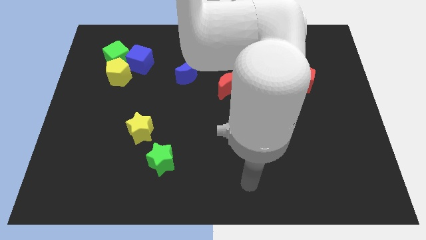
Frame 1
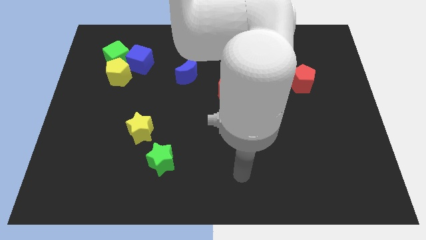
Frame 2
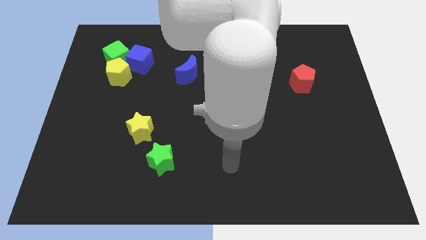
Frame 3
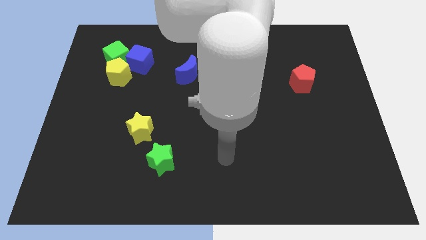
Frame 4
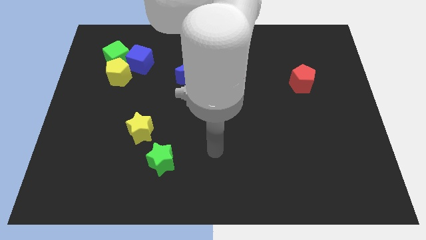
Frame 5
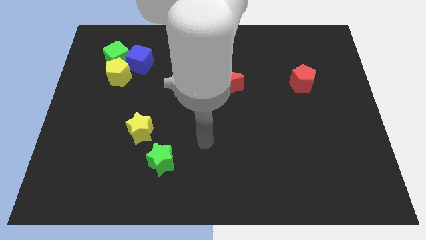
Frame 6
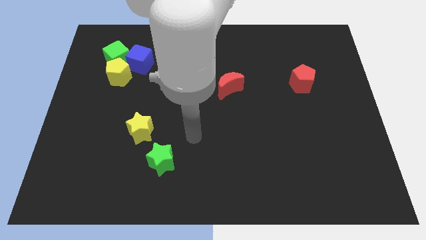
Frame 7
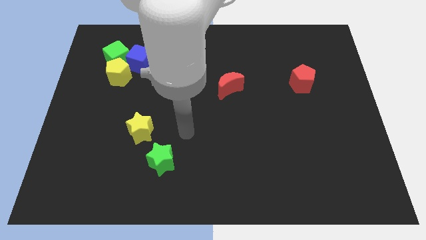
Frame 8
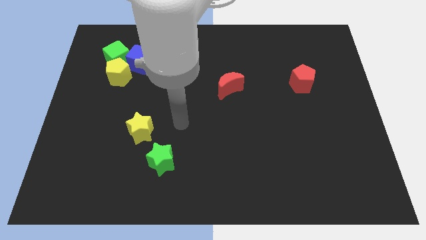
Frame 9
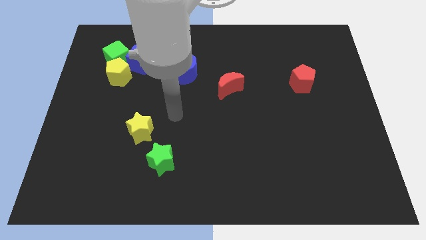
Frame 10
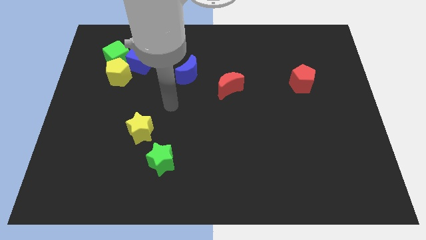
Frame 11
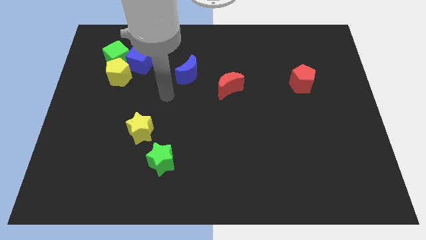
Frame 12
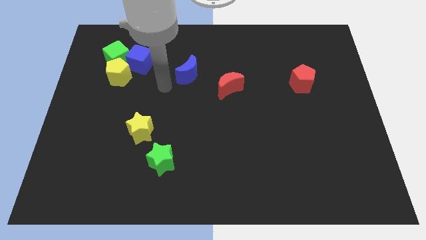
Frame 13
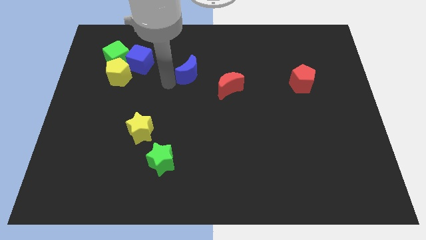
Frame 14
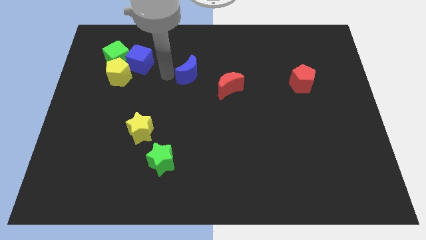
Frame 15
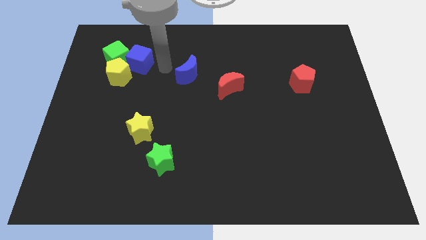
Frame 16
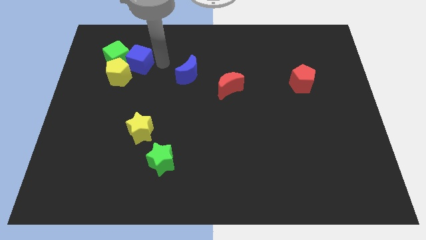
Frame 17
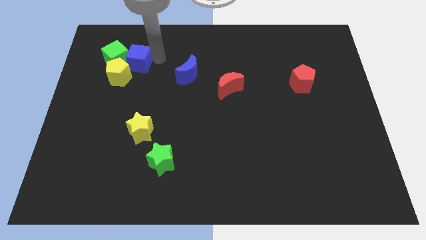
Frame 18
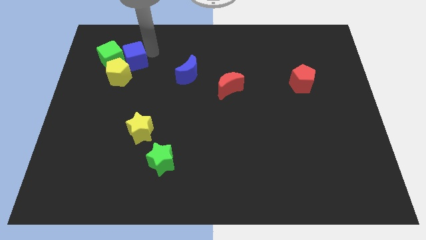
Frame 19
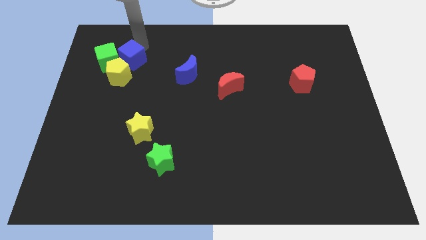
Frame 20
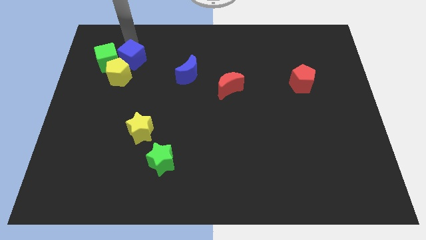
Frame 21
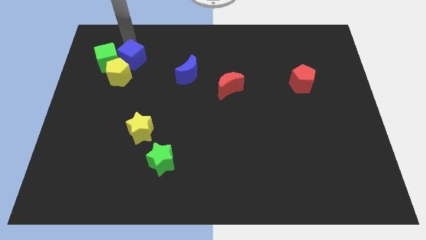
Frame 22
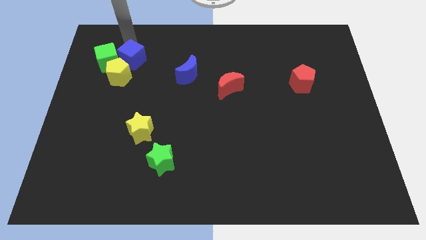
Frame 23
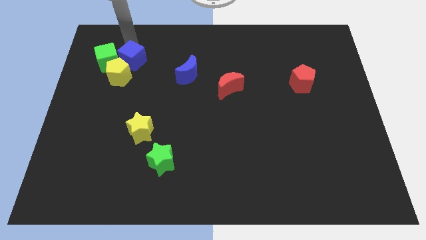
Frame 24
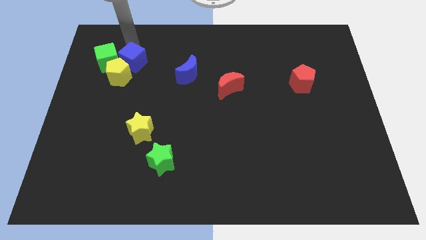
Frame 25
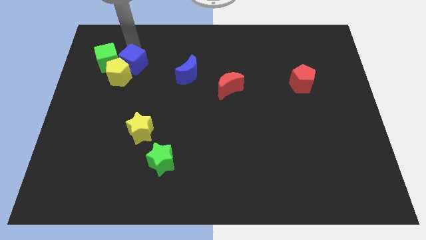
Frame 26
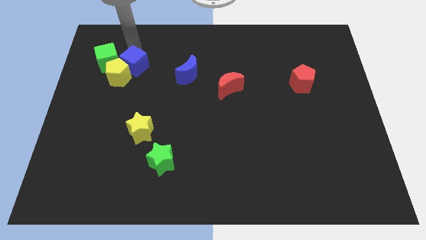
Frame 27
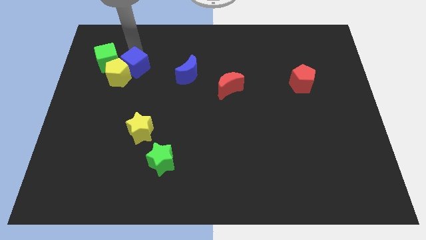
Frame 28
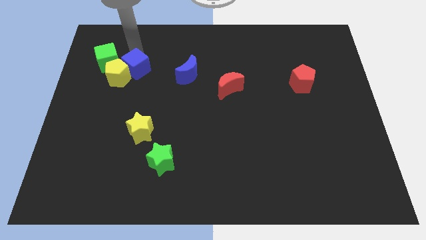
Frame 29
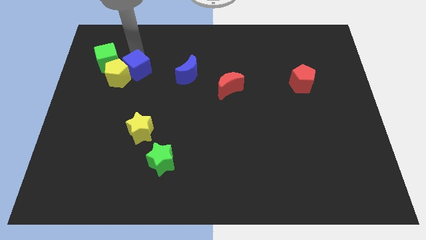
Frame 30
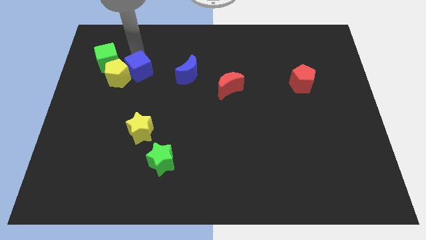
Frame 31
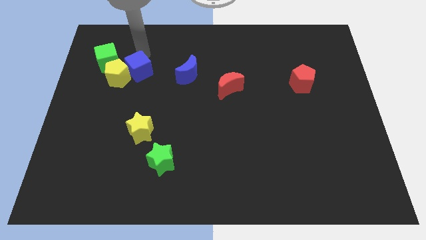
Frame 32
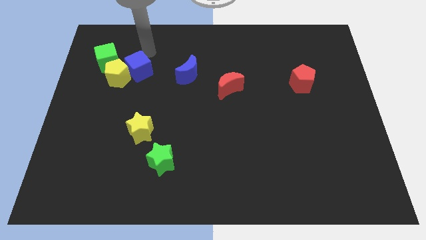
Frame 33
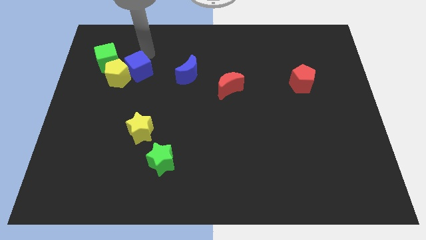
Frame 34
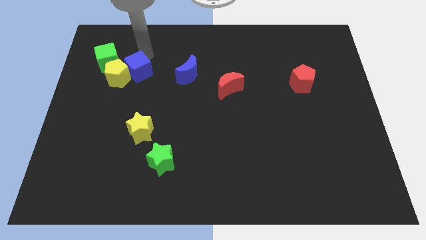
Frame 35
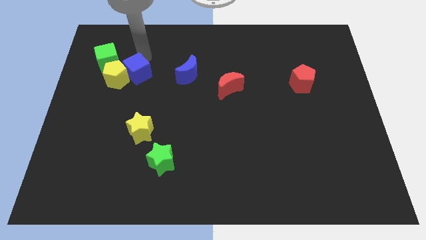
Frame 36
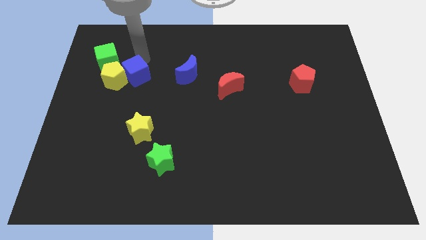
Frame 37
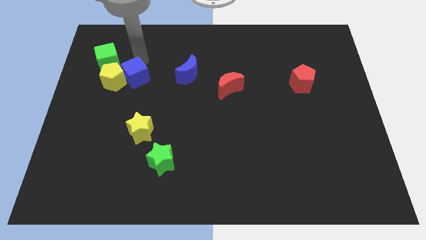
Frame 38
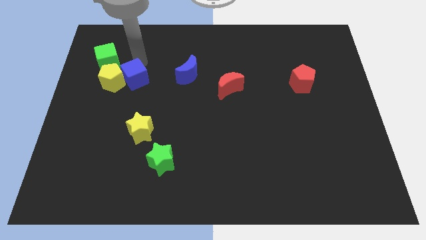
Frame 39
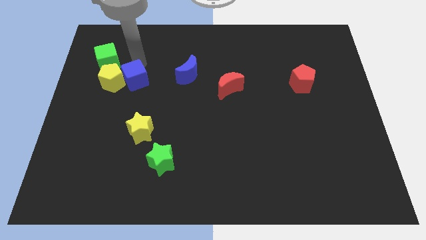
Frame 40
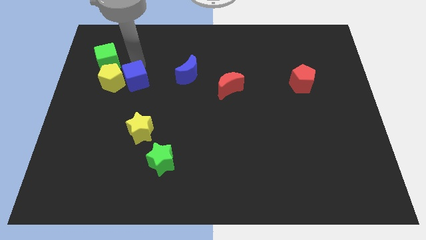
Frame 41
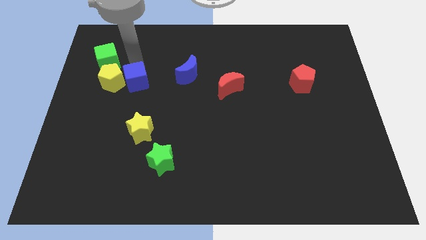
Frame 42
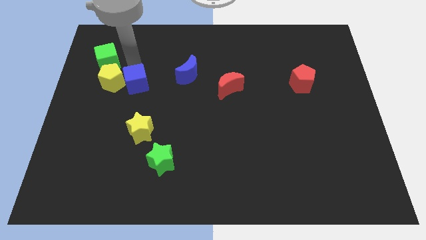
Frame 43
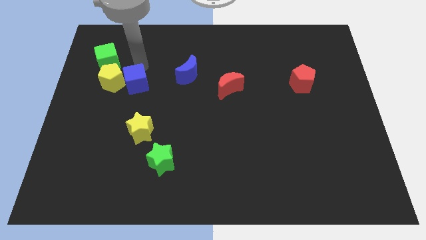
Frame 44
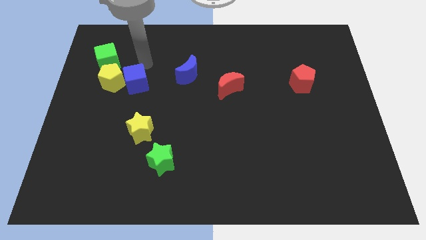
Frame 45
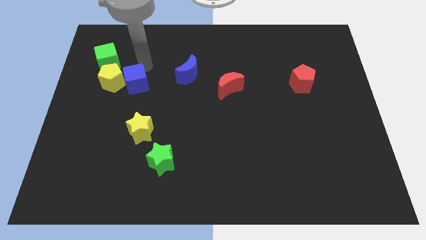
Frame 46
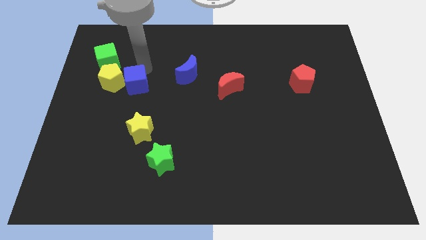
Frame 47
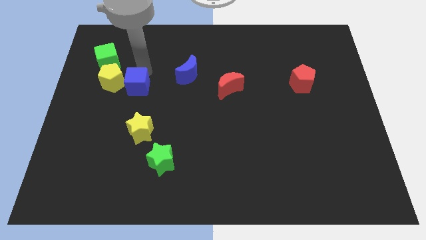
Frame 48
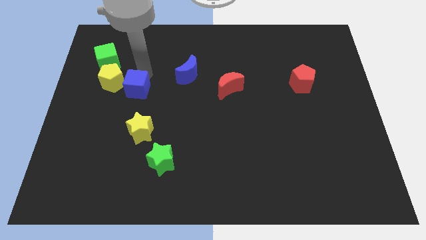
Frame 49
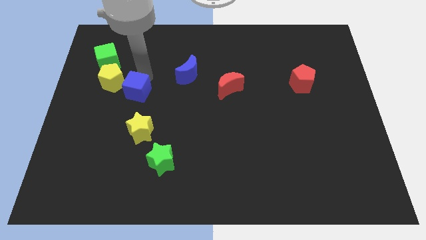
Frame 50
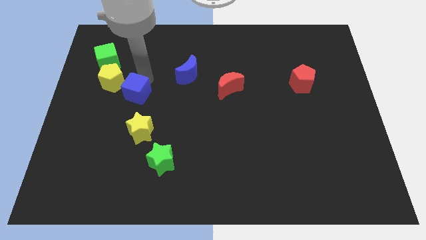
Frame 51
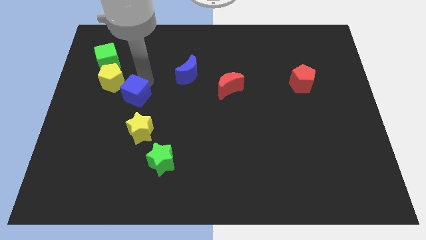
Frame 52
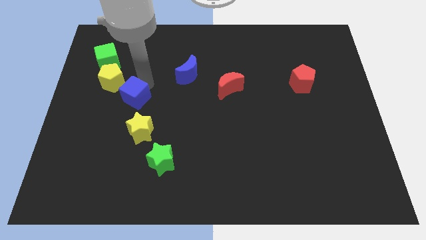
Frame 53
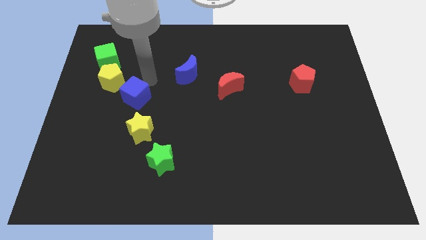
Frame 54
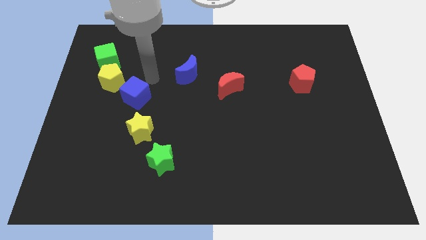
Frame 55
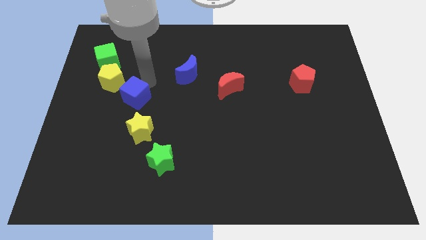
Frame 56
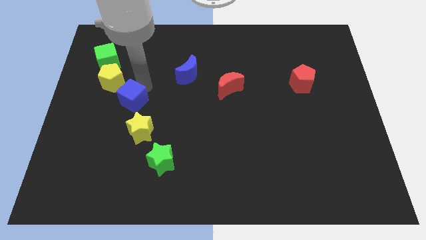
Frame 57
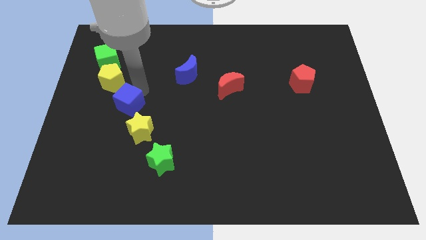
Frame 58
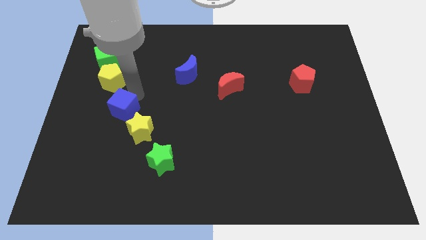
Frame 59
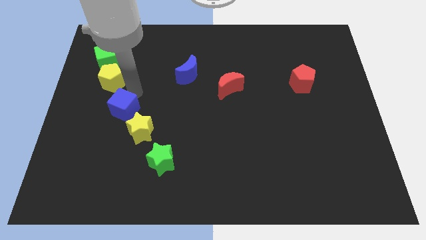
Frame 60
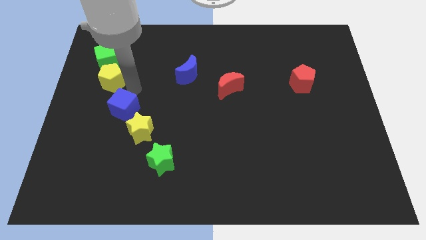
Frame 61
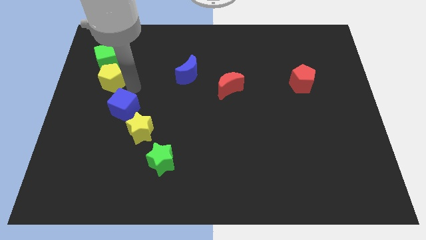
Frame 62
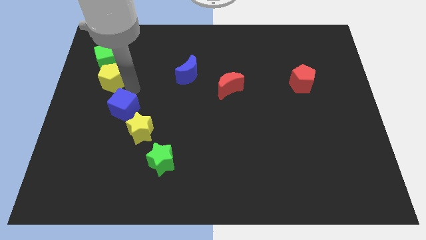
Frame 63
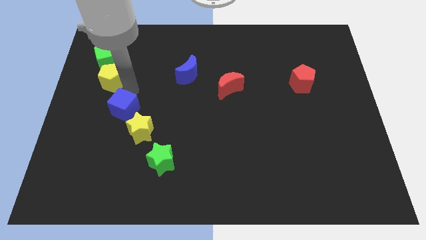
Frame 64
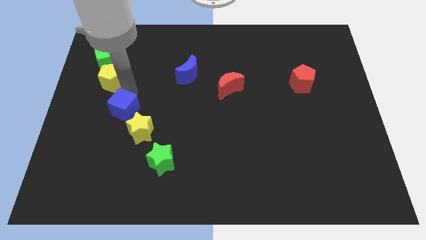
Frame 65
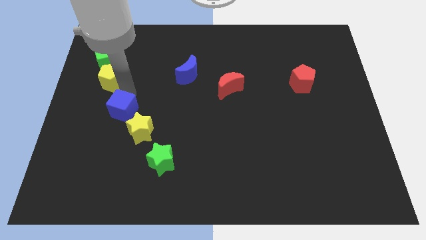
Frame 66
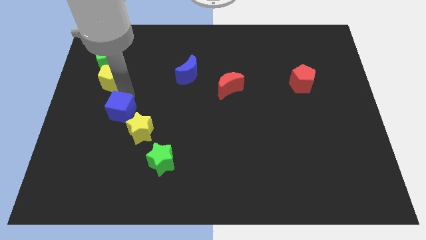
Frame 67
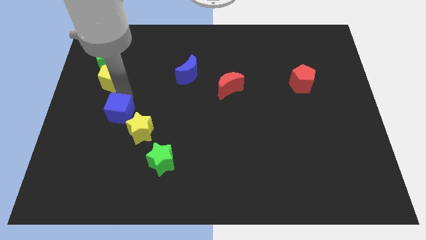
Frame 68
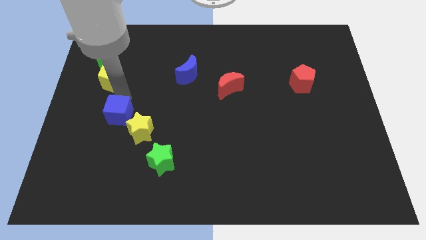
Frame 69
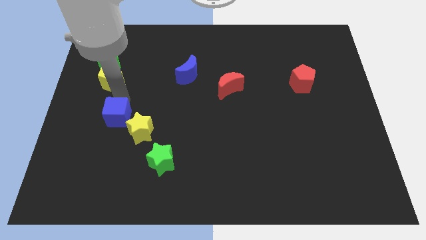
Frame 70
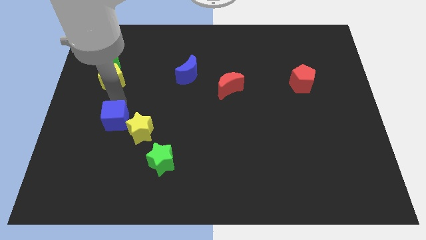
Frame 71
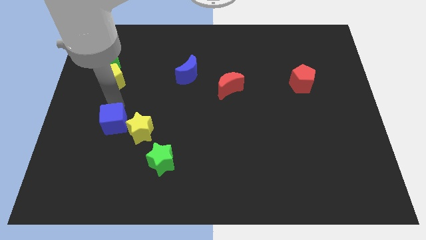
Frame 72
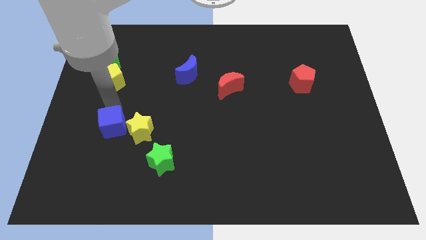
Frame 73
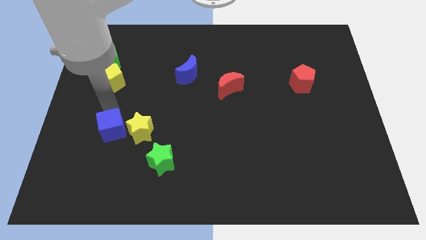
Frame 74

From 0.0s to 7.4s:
move the blue cube down
